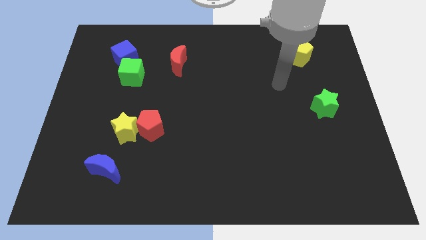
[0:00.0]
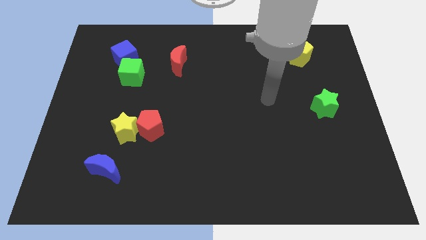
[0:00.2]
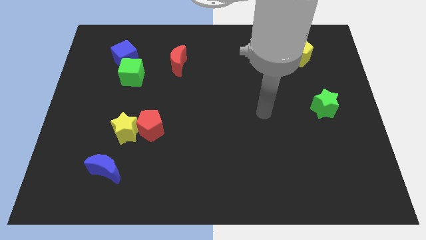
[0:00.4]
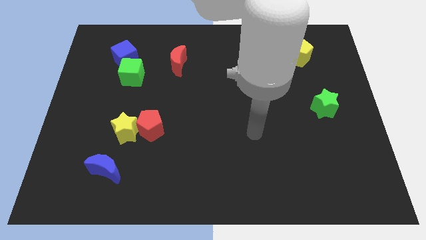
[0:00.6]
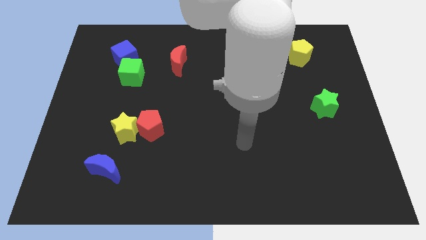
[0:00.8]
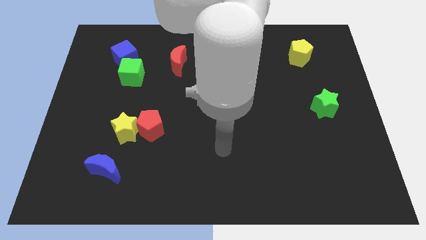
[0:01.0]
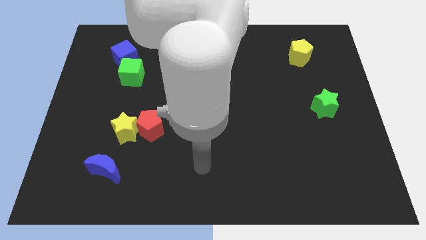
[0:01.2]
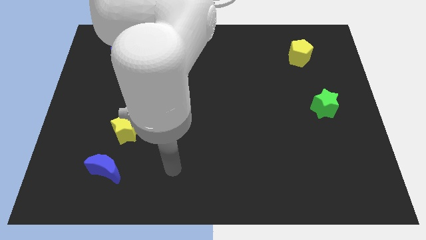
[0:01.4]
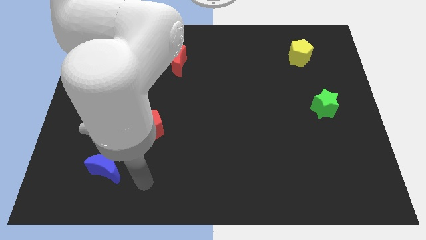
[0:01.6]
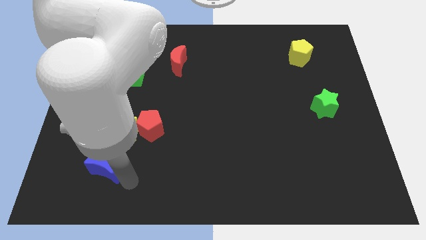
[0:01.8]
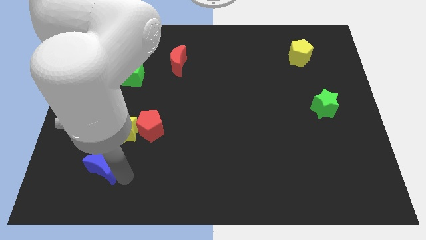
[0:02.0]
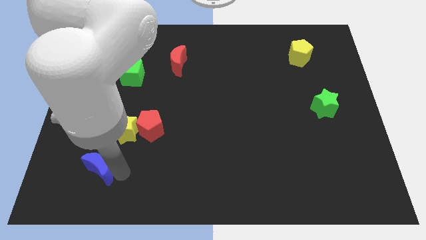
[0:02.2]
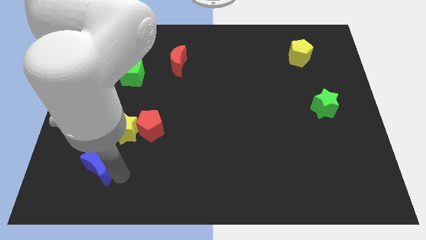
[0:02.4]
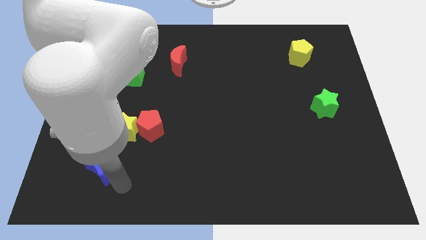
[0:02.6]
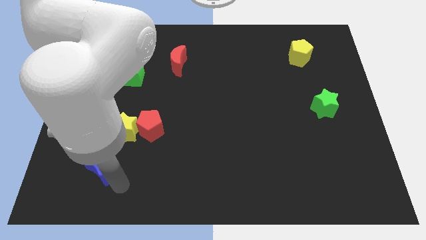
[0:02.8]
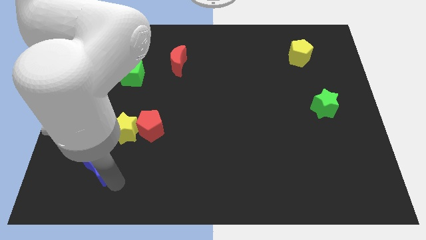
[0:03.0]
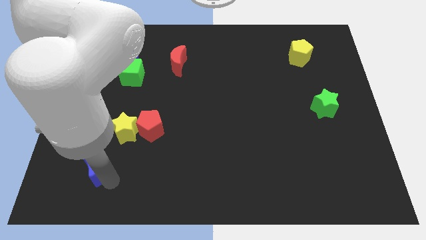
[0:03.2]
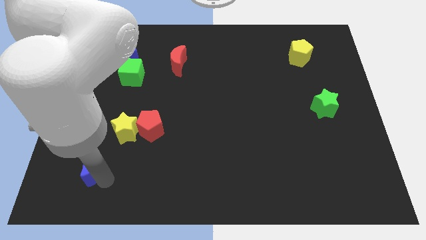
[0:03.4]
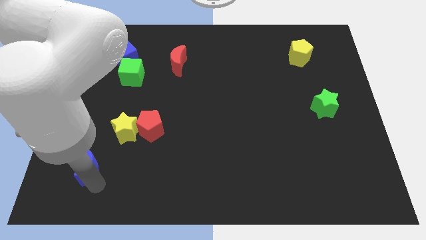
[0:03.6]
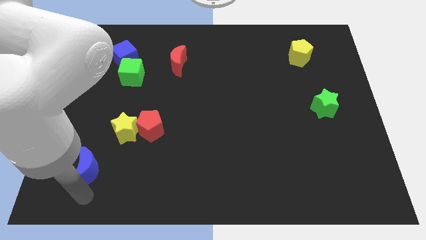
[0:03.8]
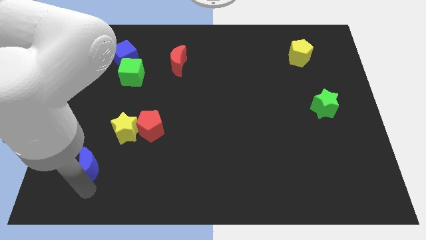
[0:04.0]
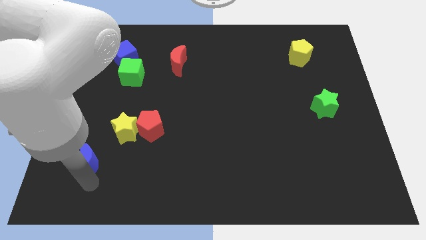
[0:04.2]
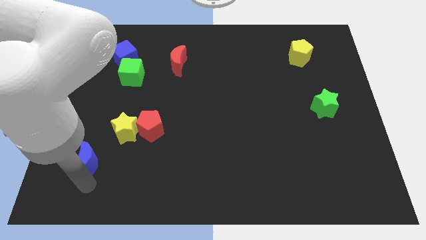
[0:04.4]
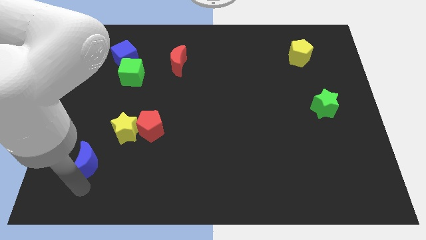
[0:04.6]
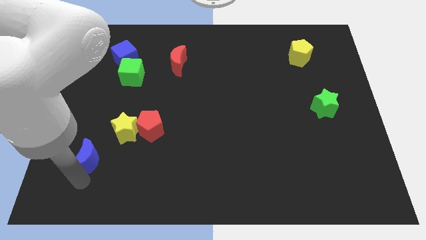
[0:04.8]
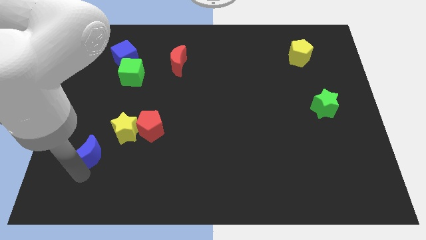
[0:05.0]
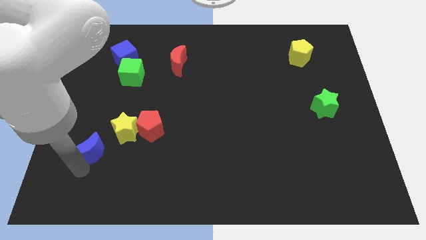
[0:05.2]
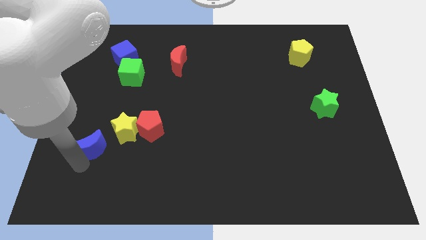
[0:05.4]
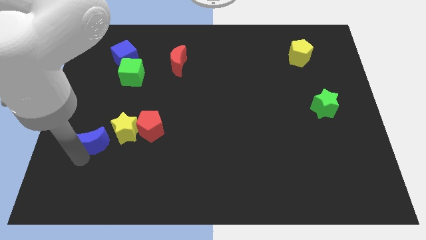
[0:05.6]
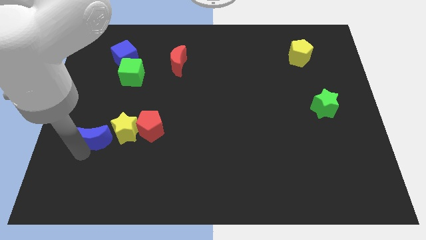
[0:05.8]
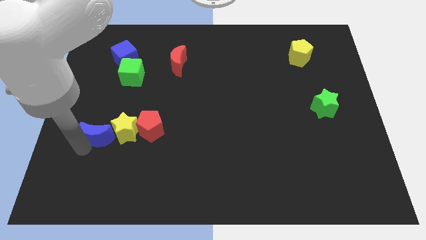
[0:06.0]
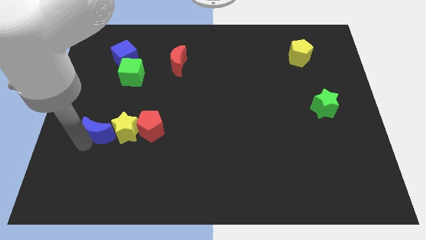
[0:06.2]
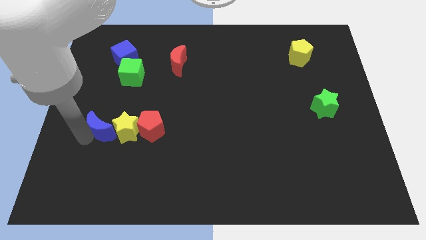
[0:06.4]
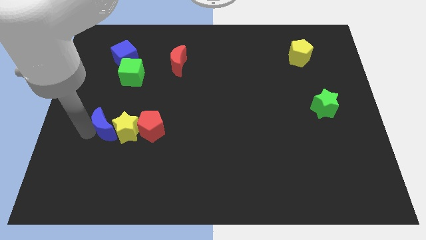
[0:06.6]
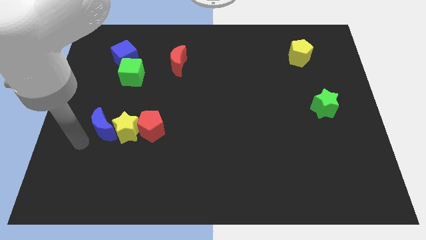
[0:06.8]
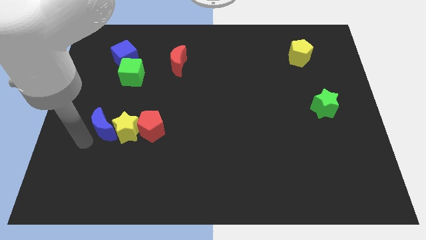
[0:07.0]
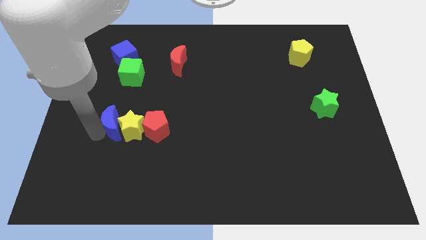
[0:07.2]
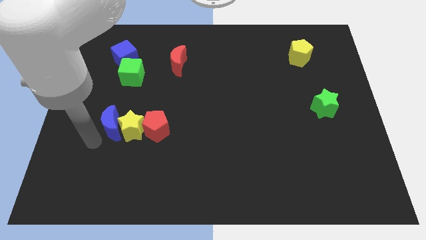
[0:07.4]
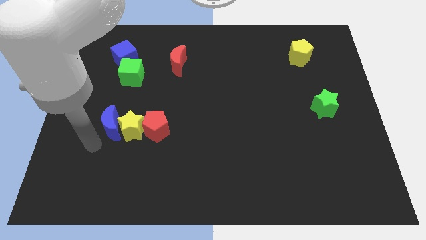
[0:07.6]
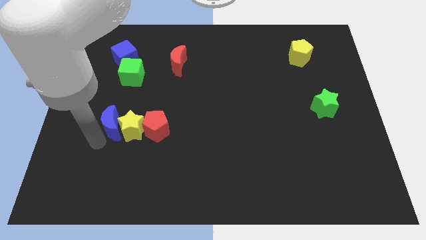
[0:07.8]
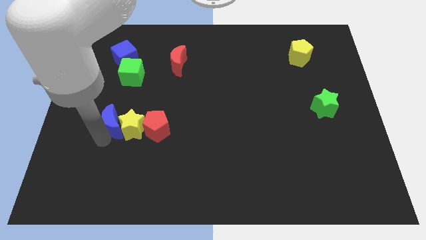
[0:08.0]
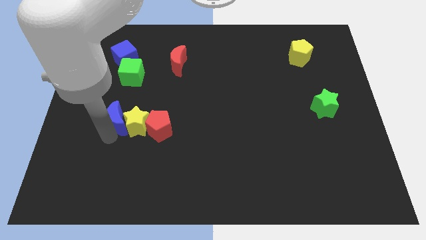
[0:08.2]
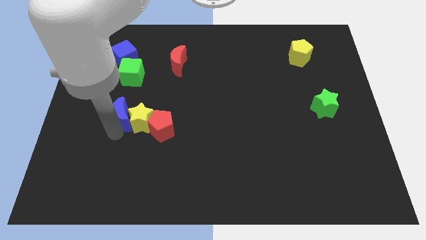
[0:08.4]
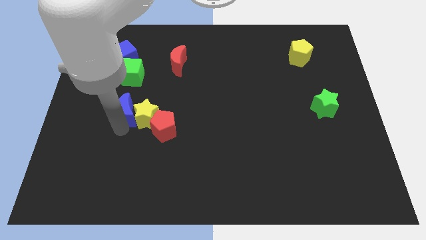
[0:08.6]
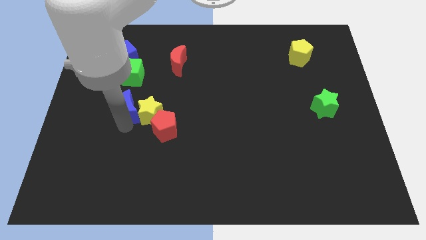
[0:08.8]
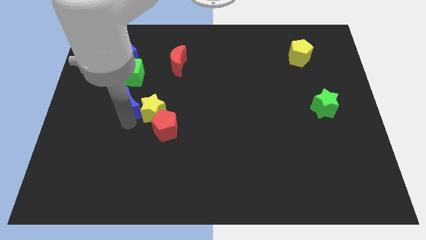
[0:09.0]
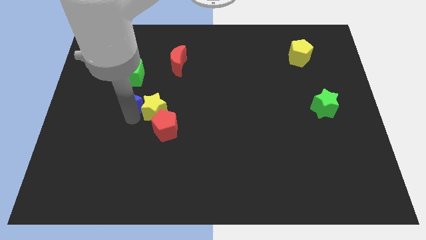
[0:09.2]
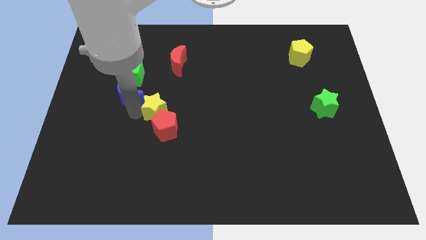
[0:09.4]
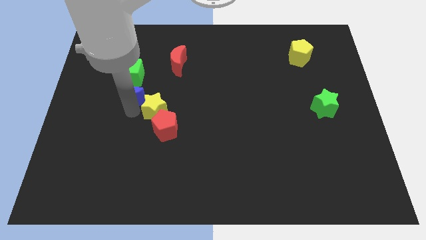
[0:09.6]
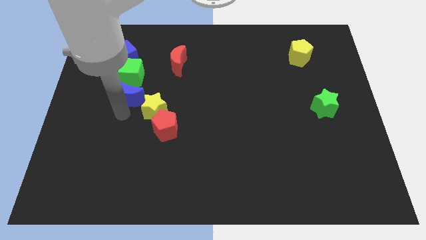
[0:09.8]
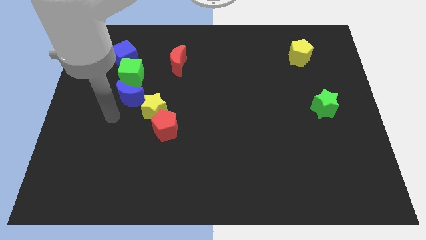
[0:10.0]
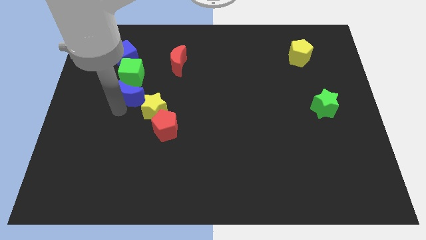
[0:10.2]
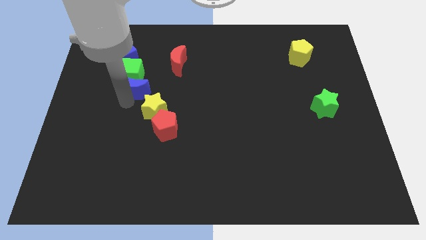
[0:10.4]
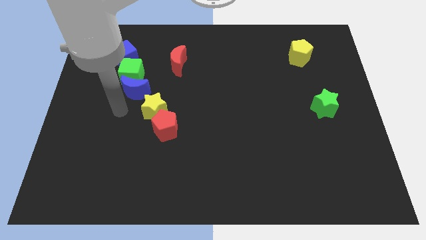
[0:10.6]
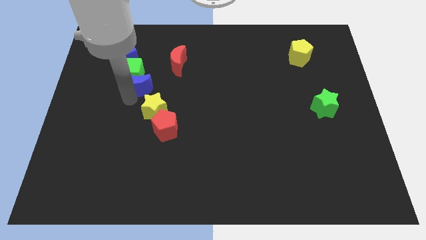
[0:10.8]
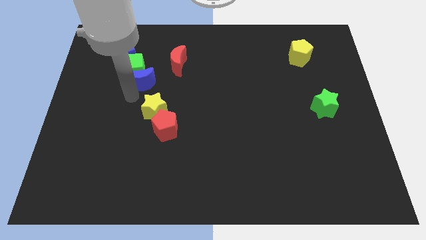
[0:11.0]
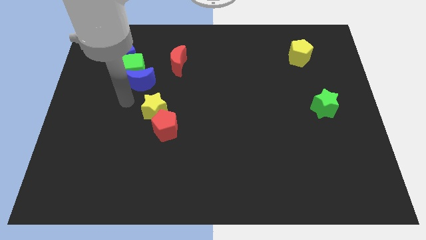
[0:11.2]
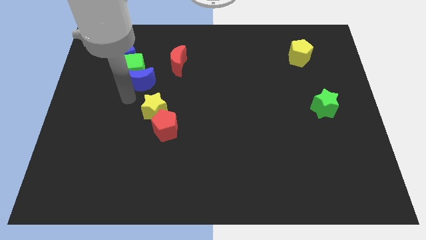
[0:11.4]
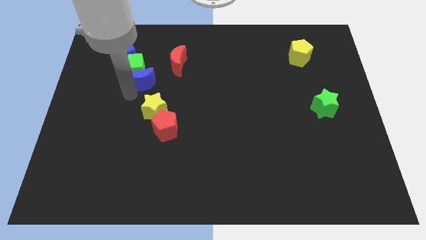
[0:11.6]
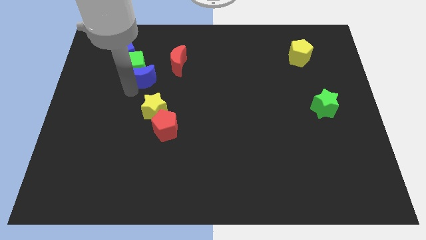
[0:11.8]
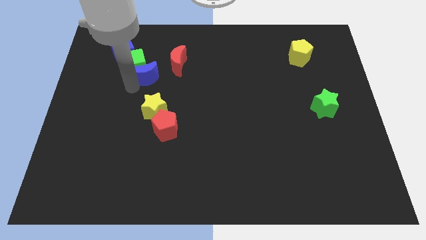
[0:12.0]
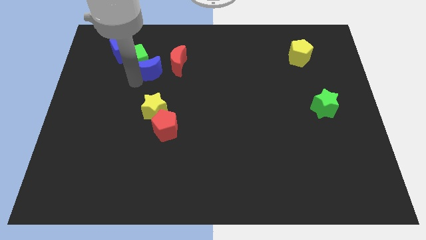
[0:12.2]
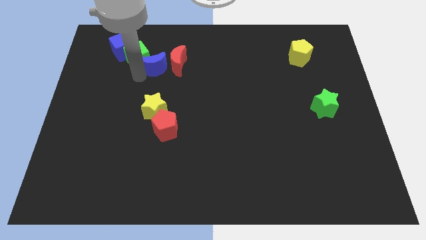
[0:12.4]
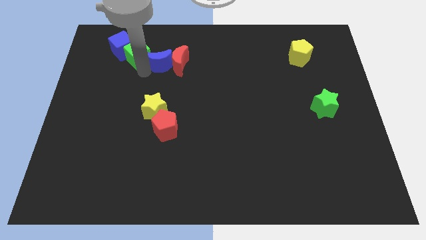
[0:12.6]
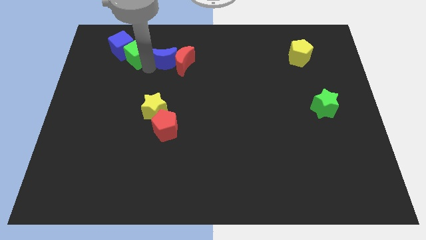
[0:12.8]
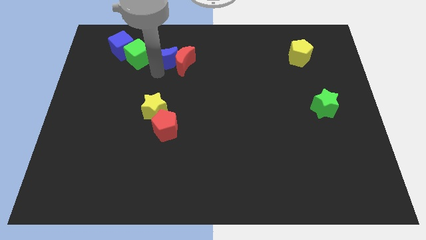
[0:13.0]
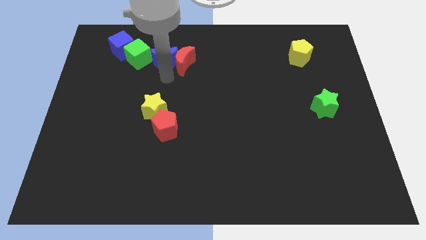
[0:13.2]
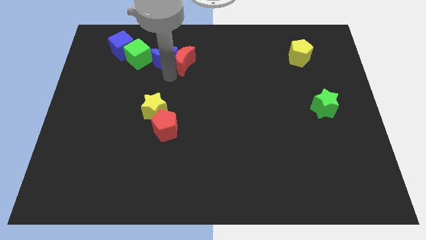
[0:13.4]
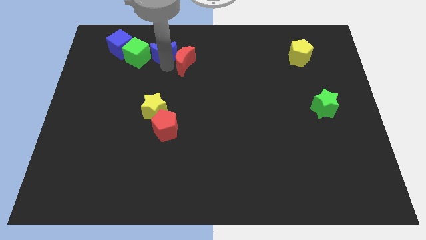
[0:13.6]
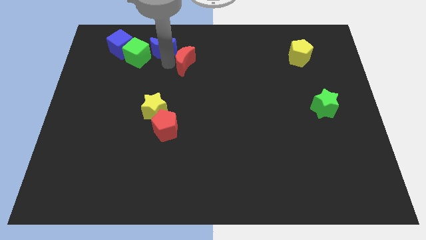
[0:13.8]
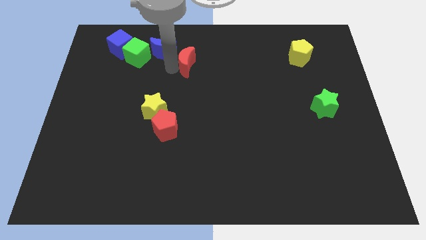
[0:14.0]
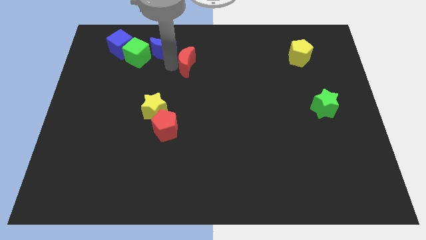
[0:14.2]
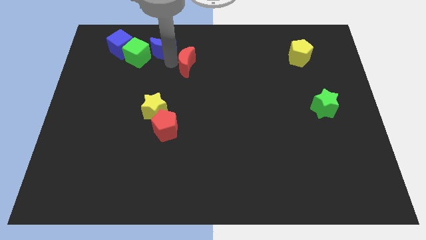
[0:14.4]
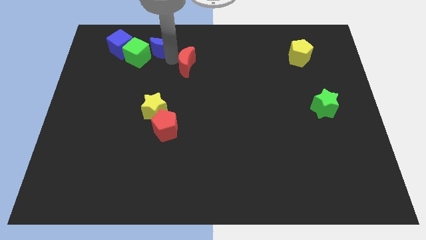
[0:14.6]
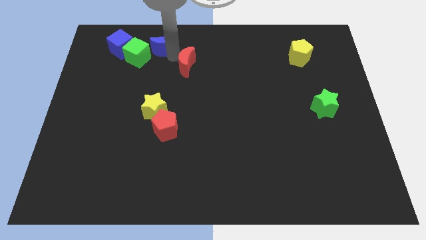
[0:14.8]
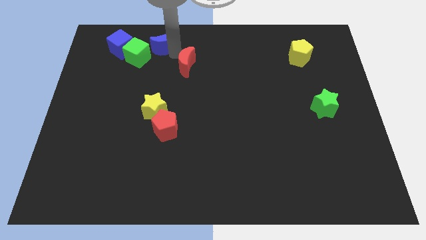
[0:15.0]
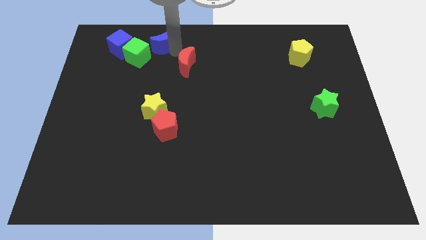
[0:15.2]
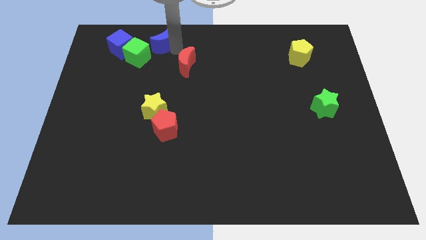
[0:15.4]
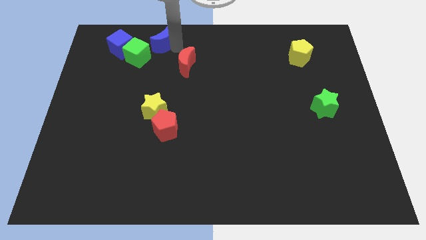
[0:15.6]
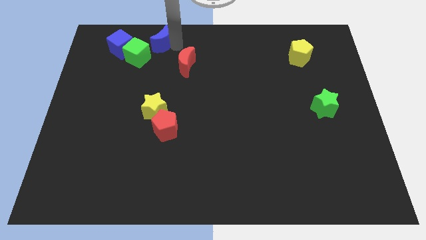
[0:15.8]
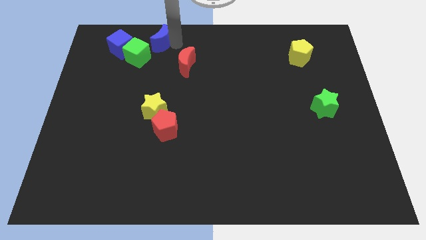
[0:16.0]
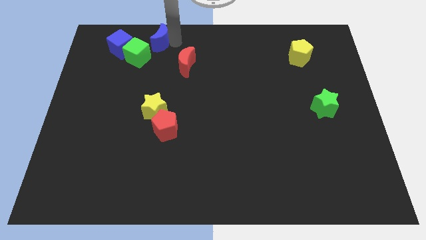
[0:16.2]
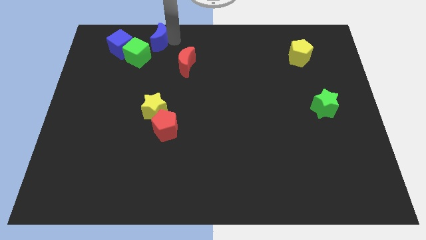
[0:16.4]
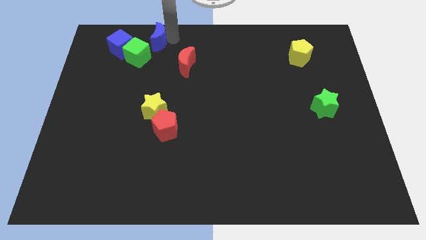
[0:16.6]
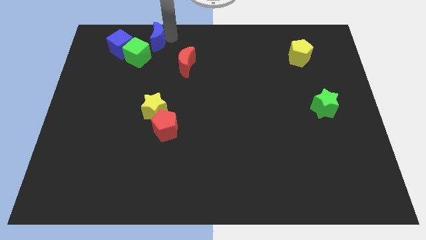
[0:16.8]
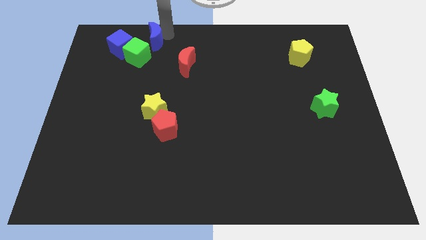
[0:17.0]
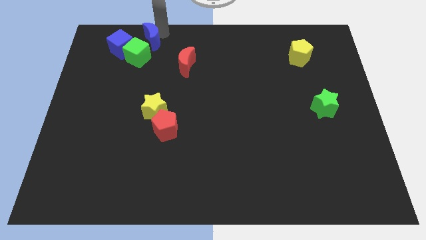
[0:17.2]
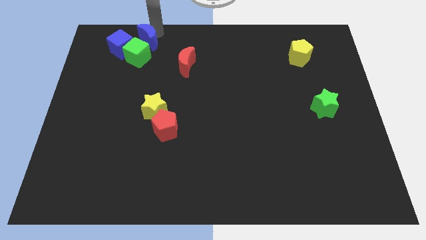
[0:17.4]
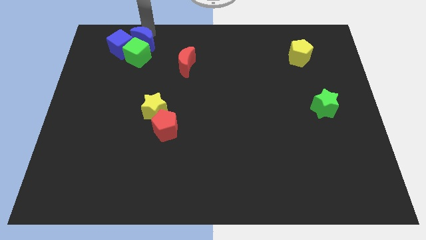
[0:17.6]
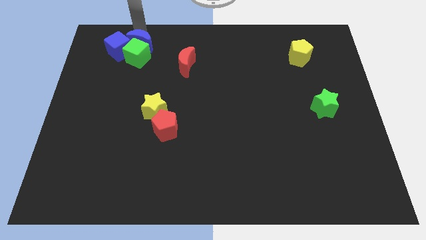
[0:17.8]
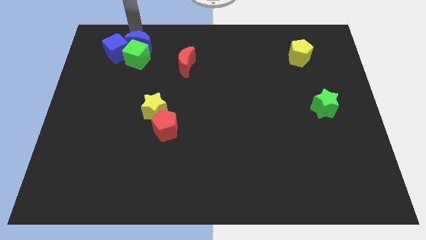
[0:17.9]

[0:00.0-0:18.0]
push the blue moon to the top right of the green cube
